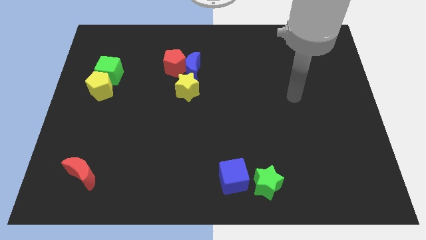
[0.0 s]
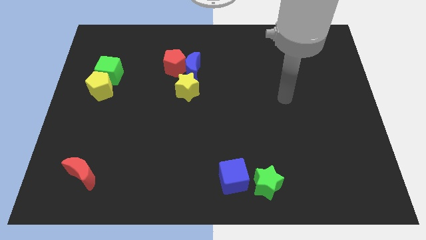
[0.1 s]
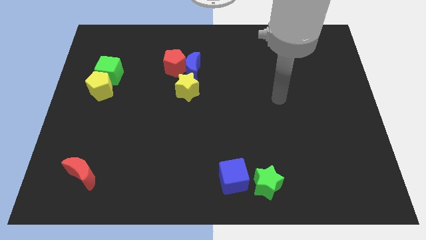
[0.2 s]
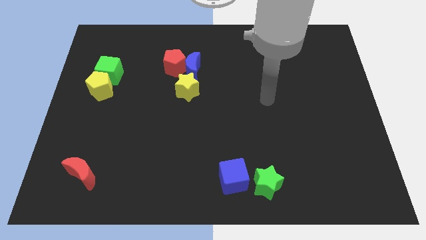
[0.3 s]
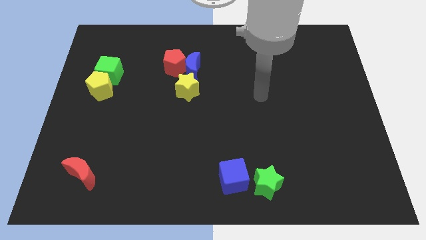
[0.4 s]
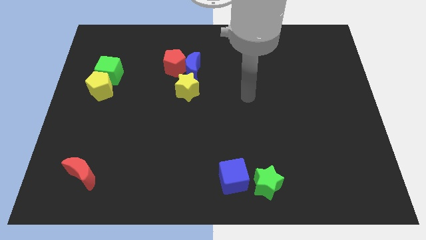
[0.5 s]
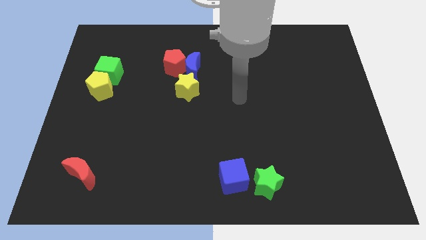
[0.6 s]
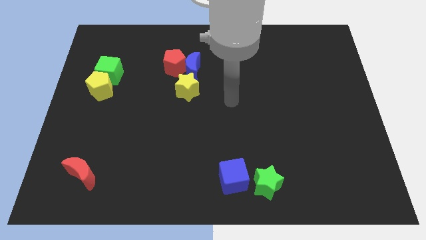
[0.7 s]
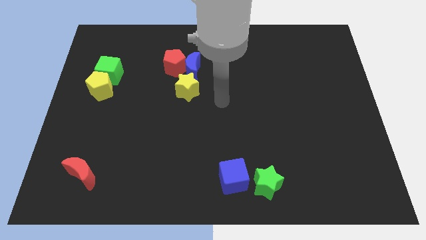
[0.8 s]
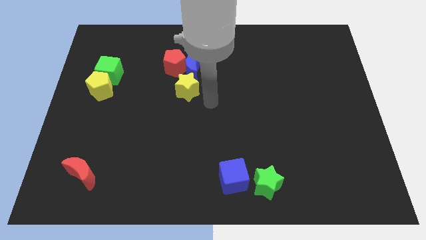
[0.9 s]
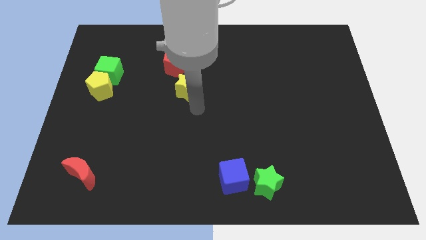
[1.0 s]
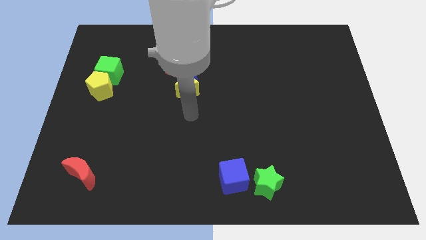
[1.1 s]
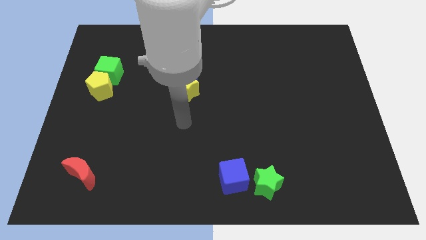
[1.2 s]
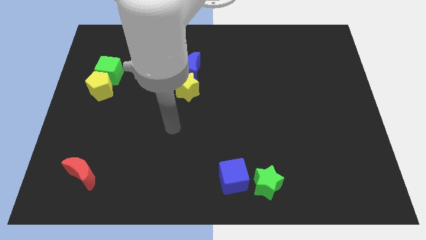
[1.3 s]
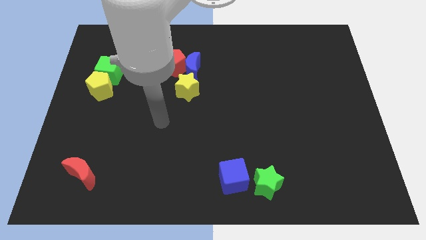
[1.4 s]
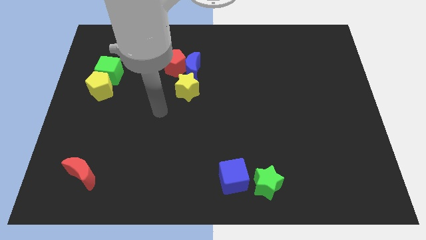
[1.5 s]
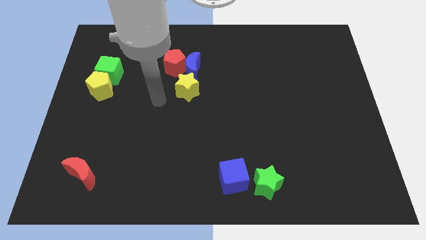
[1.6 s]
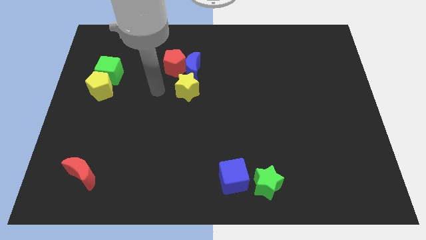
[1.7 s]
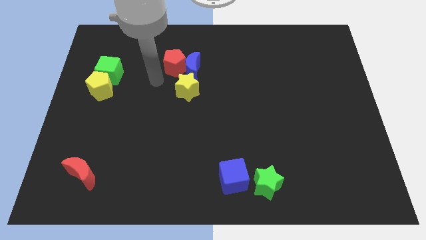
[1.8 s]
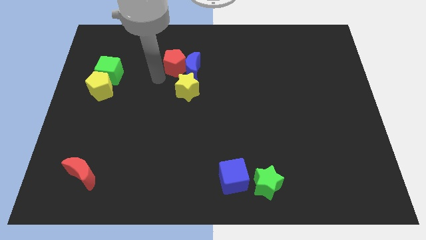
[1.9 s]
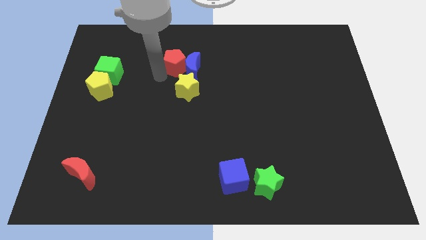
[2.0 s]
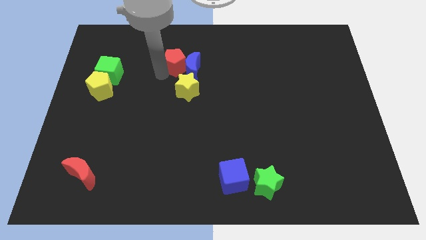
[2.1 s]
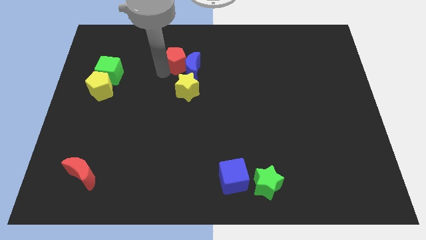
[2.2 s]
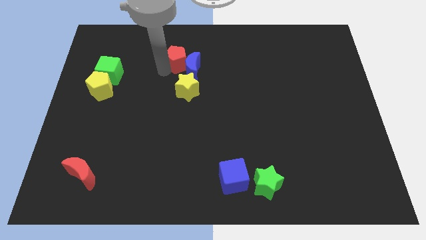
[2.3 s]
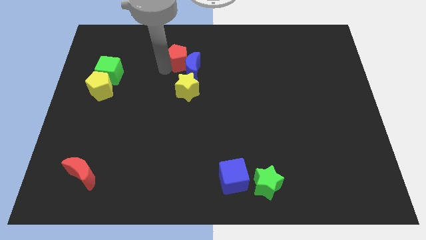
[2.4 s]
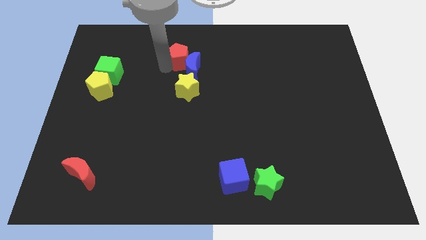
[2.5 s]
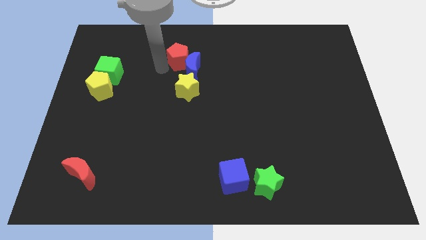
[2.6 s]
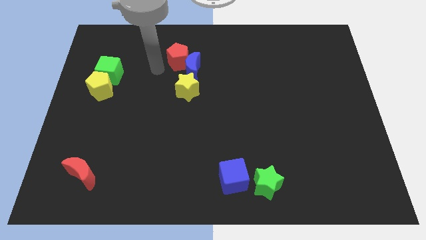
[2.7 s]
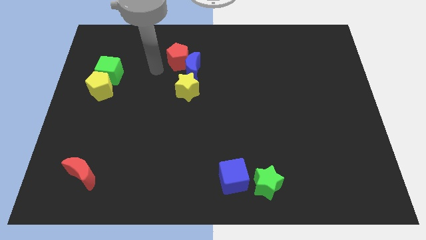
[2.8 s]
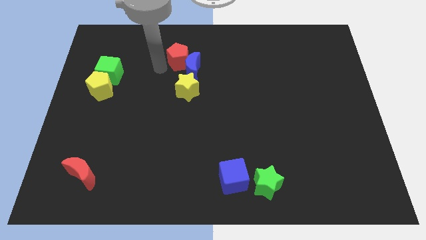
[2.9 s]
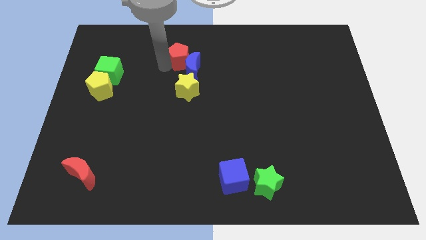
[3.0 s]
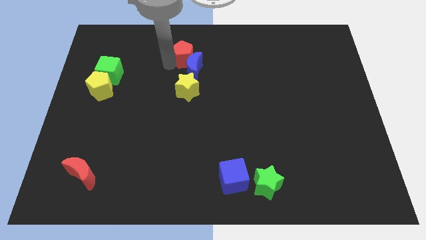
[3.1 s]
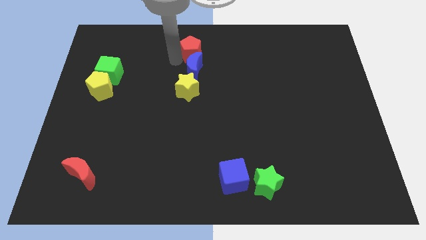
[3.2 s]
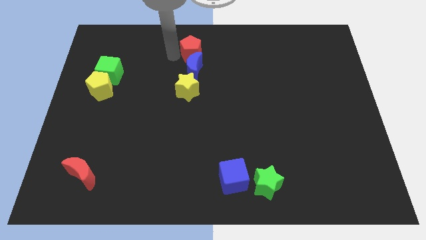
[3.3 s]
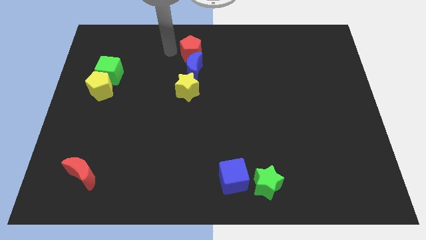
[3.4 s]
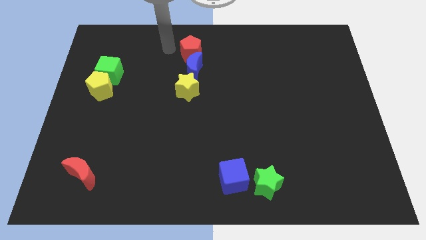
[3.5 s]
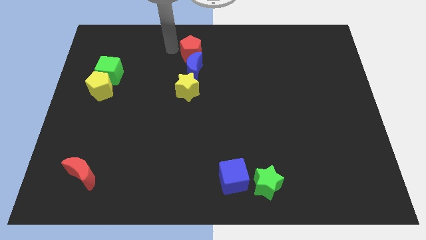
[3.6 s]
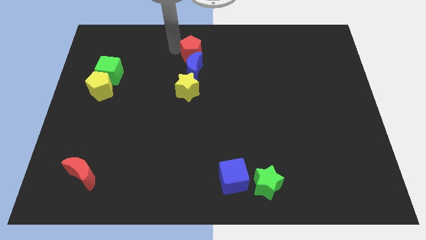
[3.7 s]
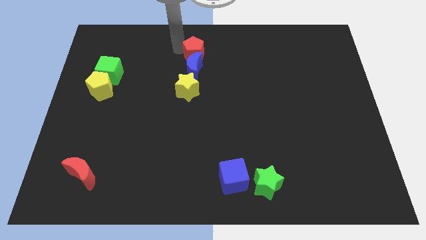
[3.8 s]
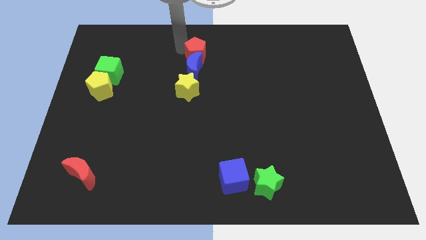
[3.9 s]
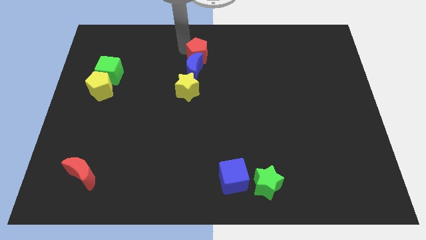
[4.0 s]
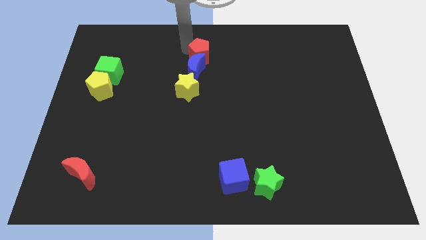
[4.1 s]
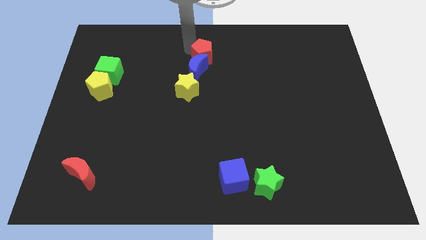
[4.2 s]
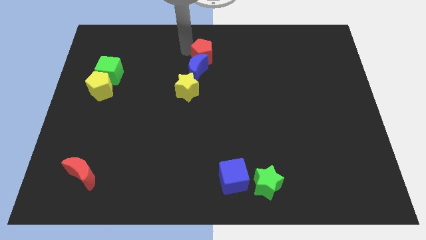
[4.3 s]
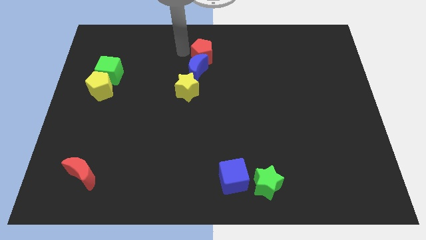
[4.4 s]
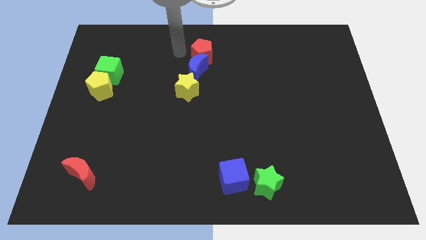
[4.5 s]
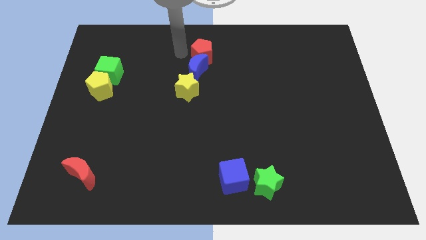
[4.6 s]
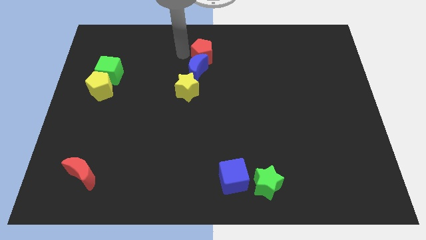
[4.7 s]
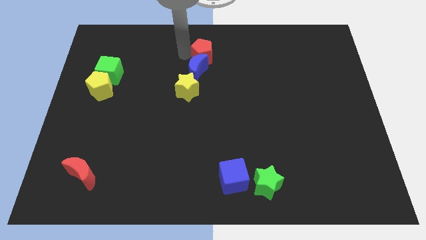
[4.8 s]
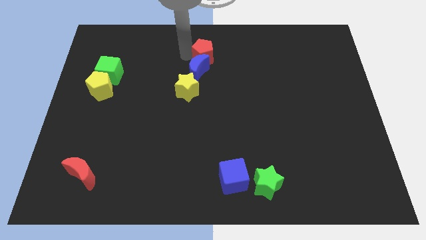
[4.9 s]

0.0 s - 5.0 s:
move the red pentagon to the right a little bit

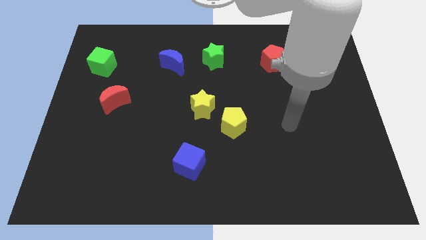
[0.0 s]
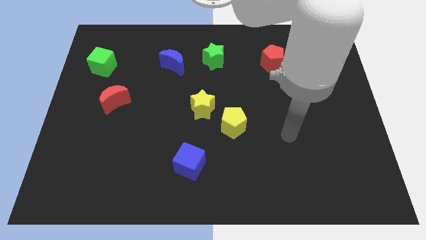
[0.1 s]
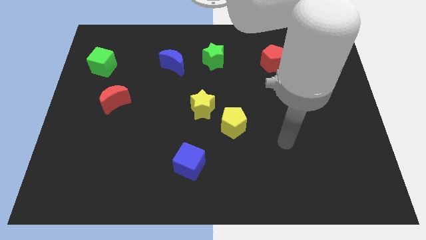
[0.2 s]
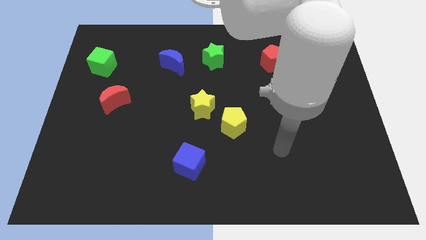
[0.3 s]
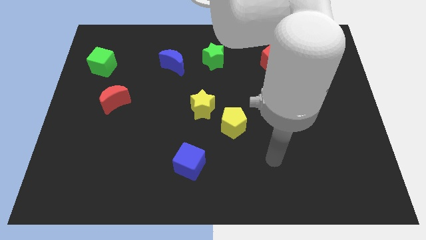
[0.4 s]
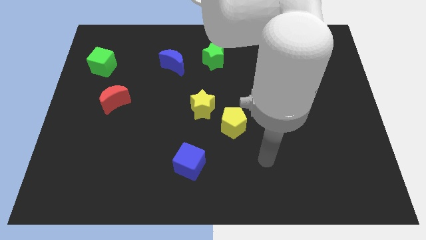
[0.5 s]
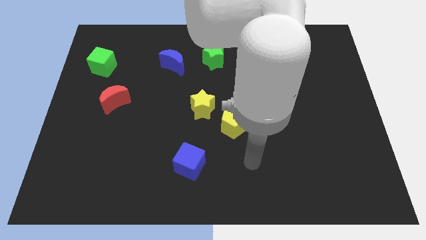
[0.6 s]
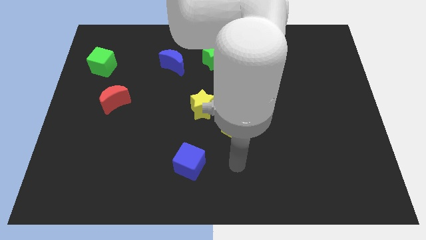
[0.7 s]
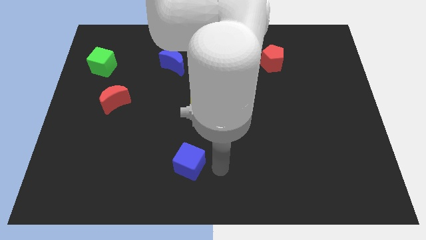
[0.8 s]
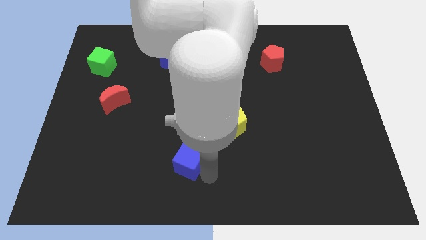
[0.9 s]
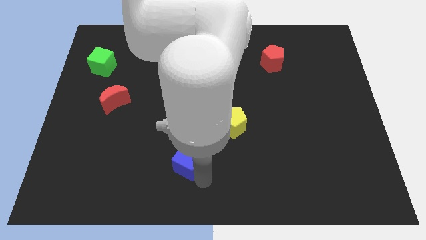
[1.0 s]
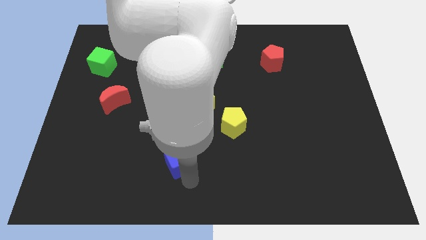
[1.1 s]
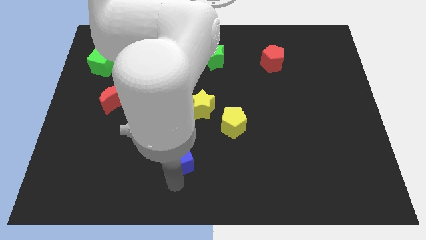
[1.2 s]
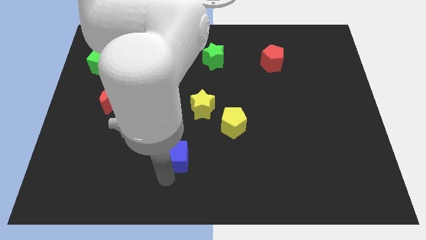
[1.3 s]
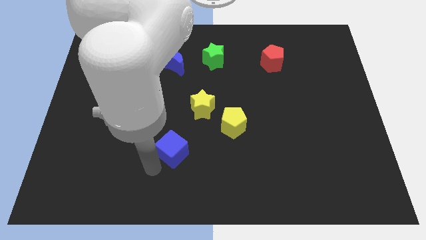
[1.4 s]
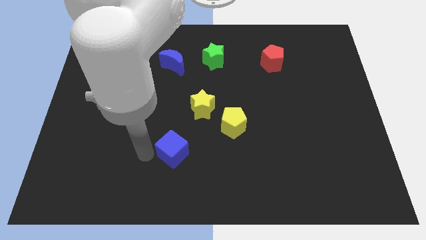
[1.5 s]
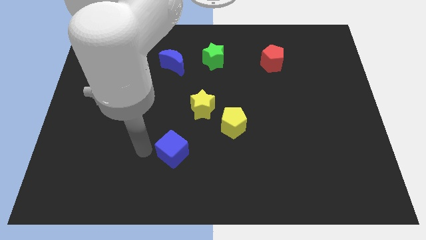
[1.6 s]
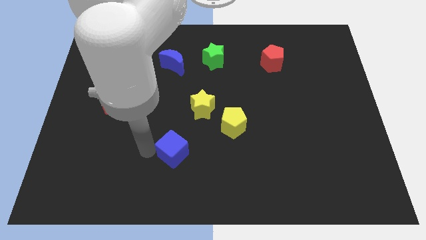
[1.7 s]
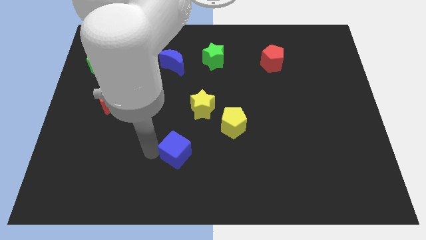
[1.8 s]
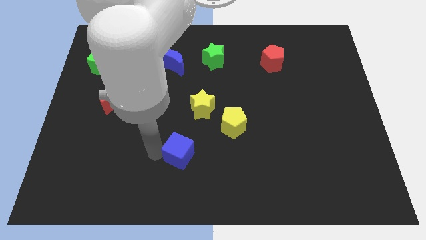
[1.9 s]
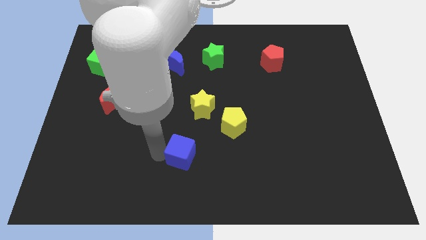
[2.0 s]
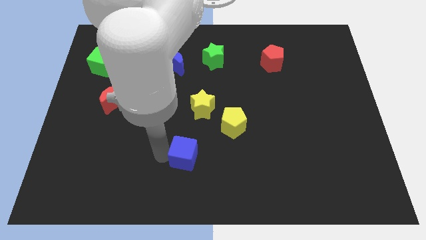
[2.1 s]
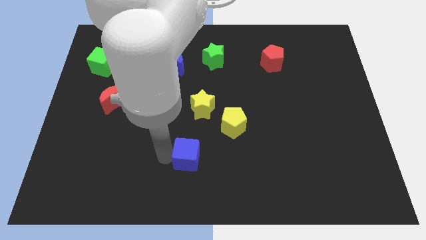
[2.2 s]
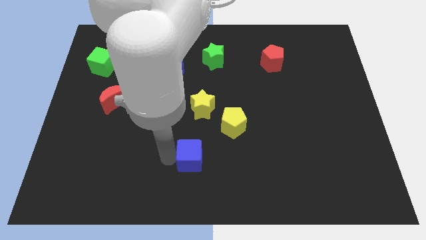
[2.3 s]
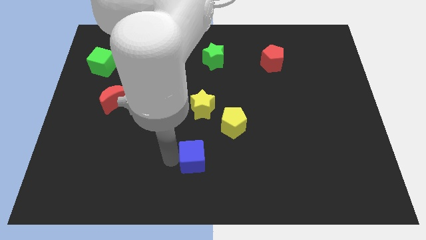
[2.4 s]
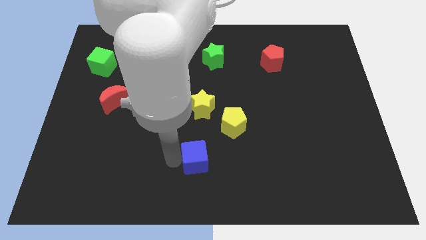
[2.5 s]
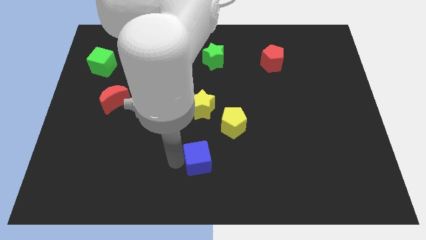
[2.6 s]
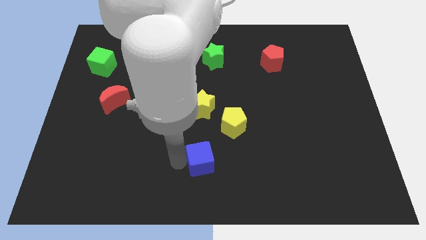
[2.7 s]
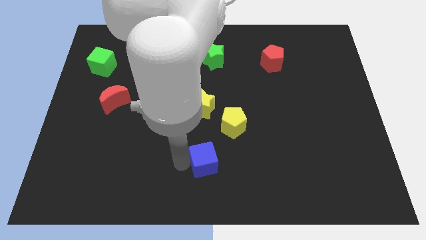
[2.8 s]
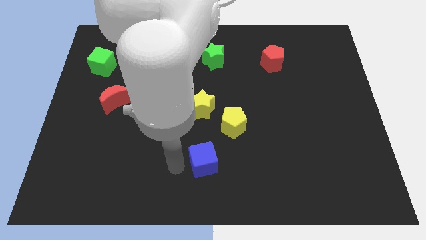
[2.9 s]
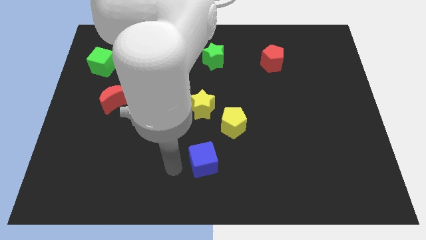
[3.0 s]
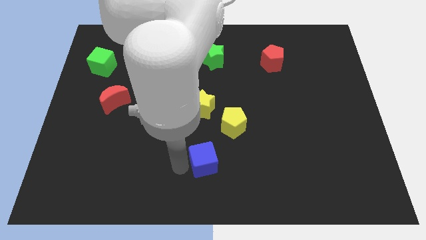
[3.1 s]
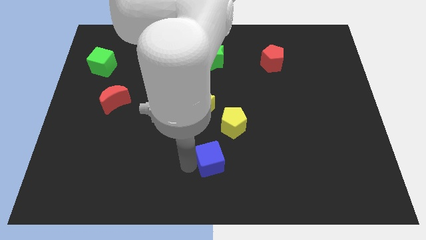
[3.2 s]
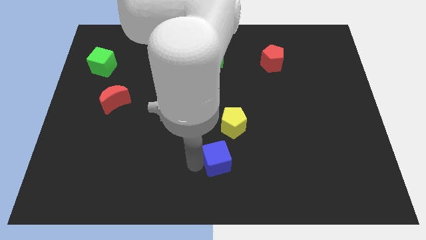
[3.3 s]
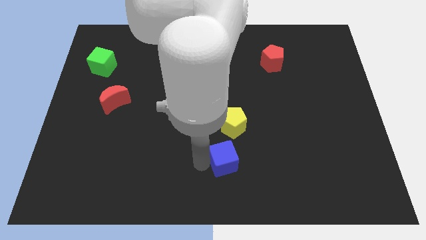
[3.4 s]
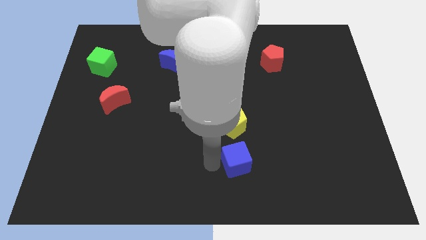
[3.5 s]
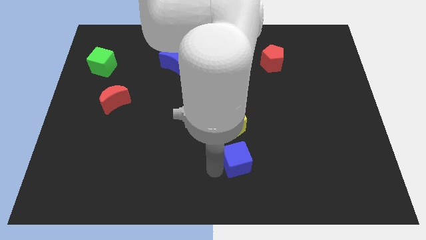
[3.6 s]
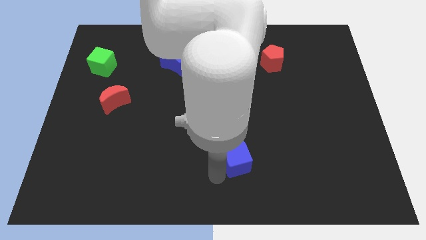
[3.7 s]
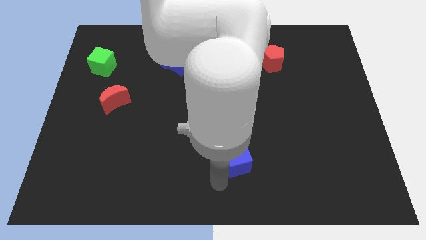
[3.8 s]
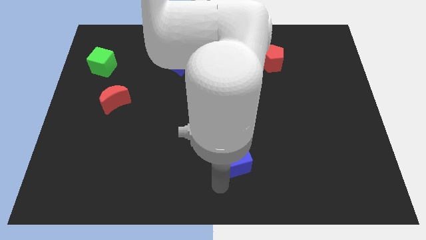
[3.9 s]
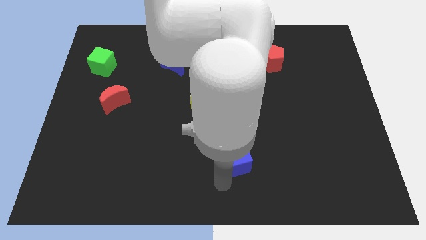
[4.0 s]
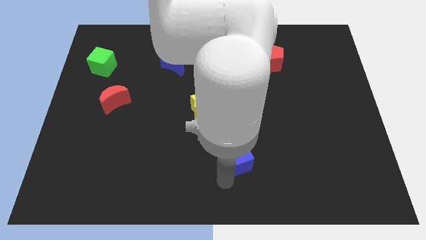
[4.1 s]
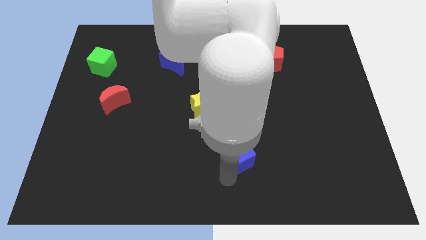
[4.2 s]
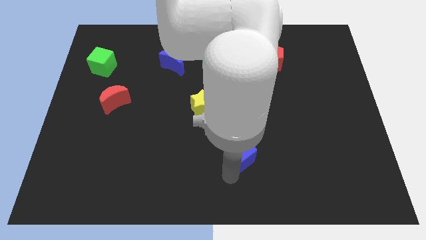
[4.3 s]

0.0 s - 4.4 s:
slightly move the blue cube up and then right
